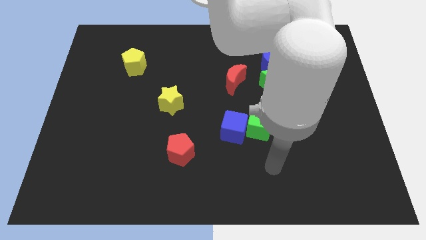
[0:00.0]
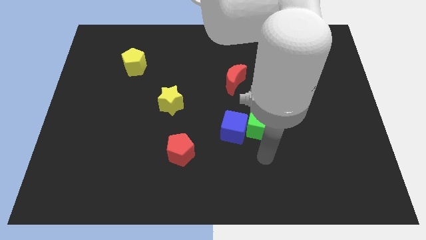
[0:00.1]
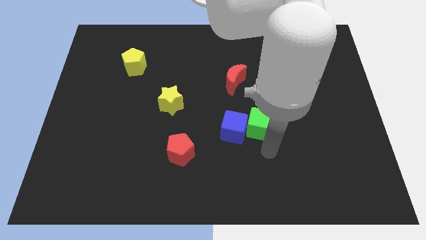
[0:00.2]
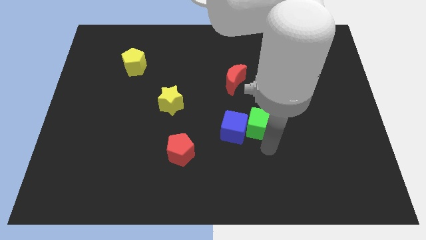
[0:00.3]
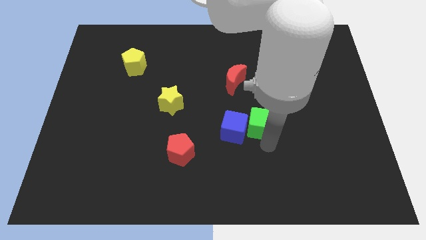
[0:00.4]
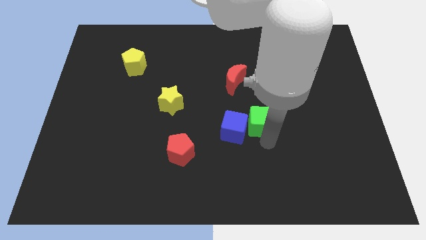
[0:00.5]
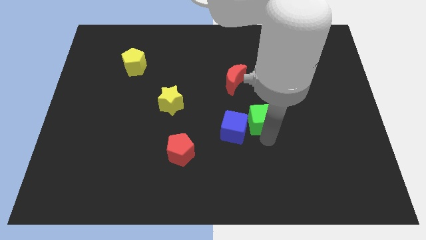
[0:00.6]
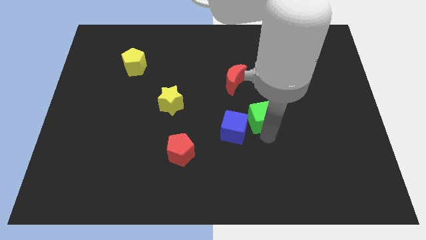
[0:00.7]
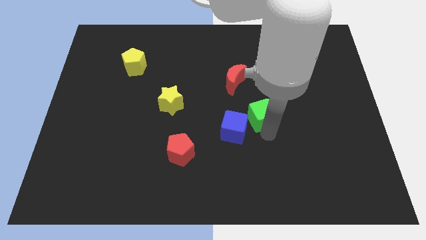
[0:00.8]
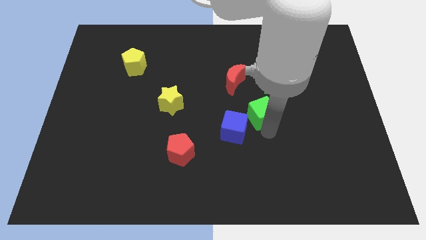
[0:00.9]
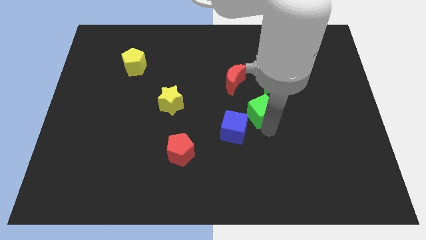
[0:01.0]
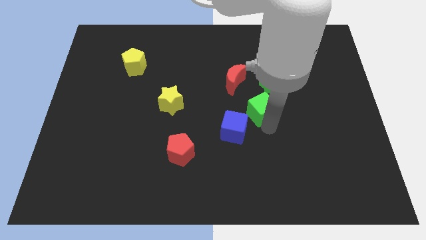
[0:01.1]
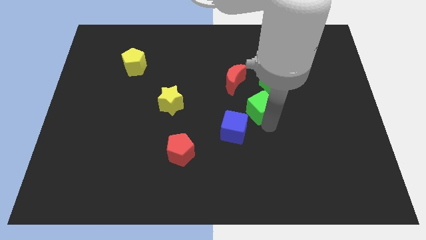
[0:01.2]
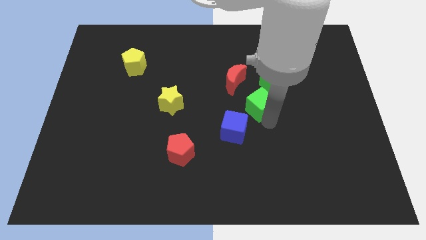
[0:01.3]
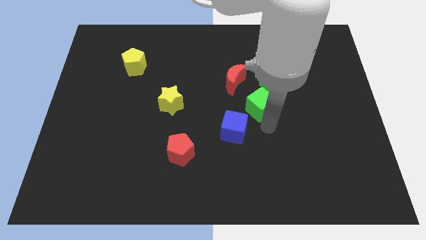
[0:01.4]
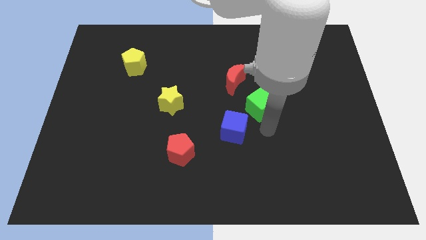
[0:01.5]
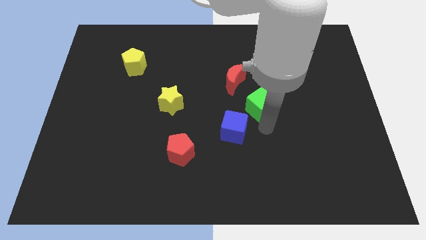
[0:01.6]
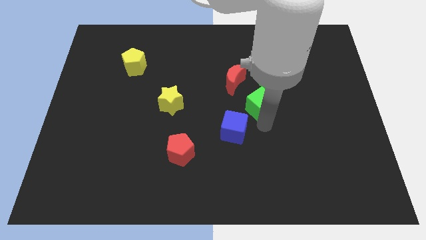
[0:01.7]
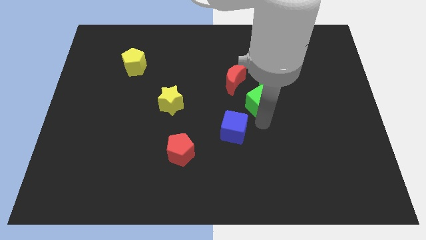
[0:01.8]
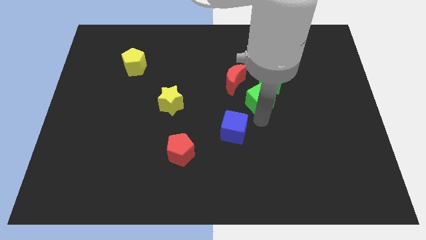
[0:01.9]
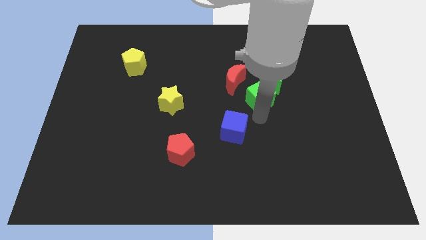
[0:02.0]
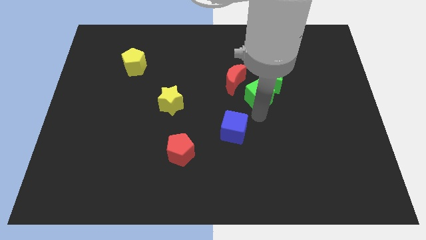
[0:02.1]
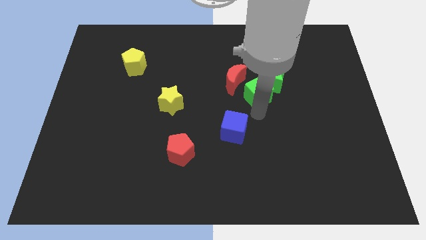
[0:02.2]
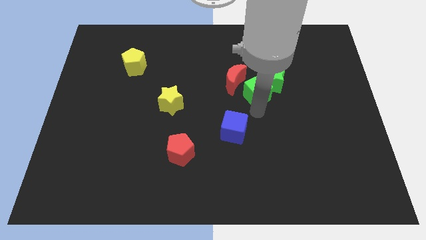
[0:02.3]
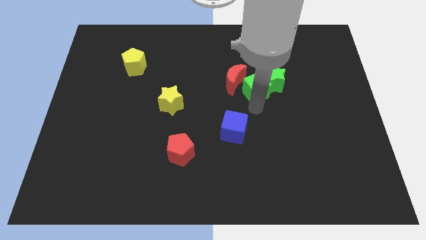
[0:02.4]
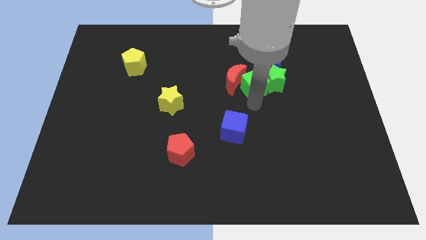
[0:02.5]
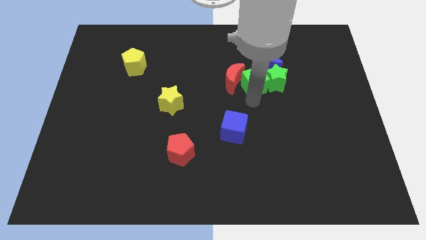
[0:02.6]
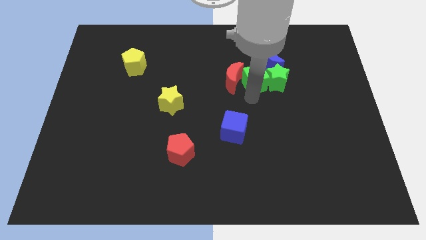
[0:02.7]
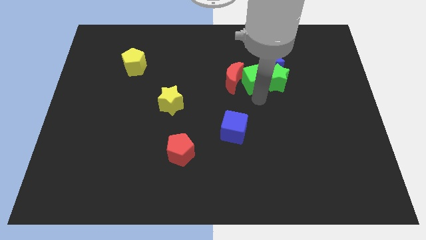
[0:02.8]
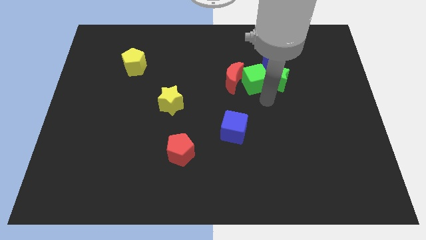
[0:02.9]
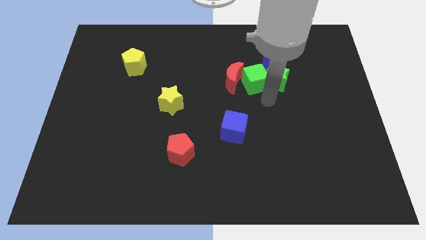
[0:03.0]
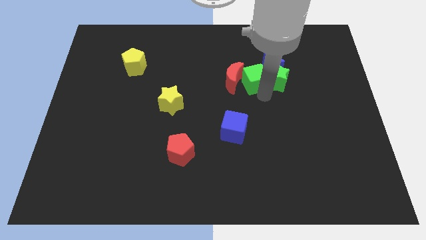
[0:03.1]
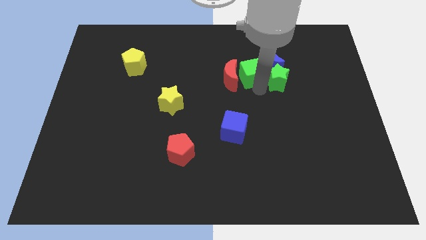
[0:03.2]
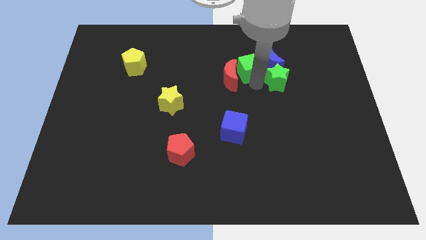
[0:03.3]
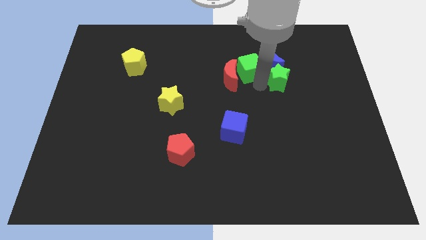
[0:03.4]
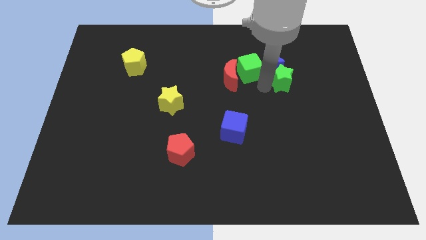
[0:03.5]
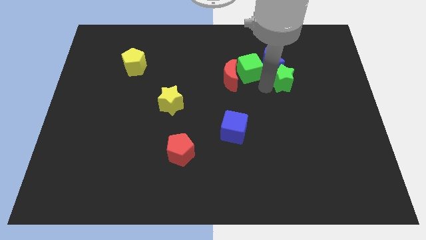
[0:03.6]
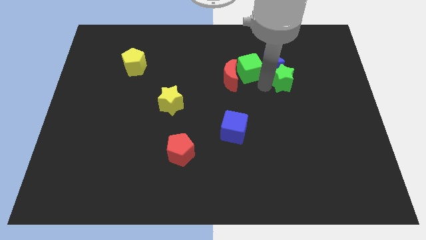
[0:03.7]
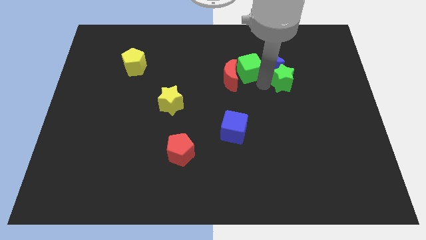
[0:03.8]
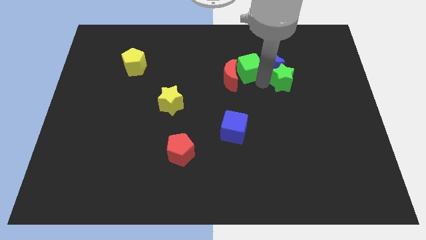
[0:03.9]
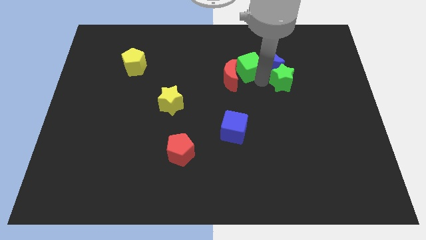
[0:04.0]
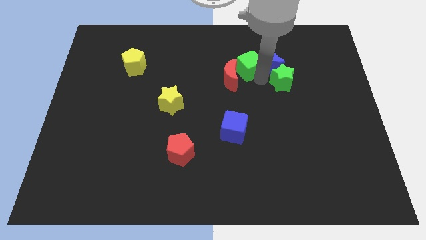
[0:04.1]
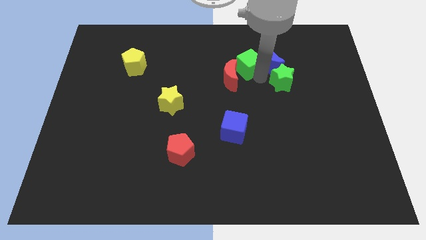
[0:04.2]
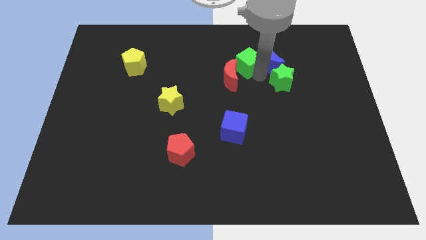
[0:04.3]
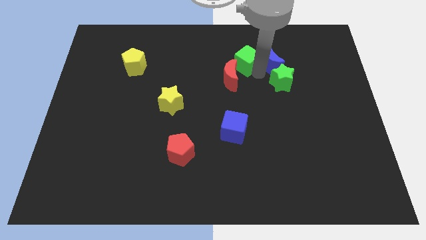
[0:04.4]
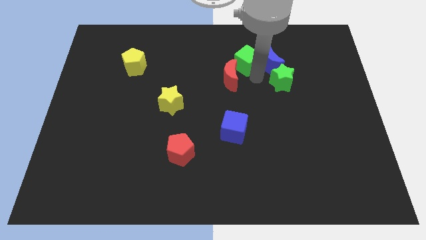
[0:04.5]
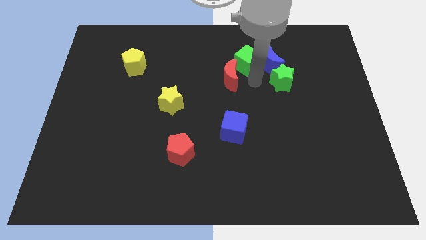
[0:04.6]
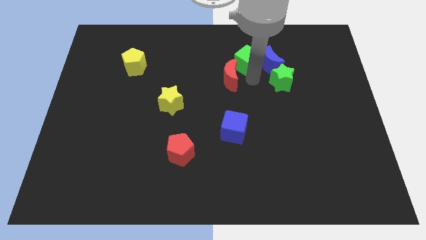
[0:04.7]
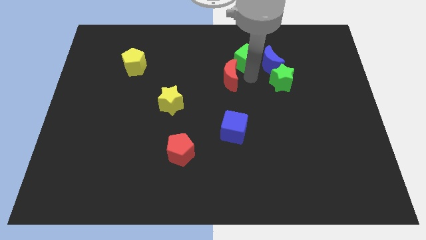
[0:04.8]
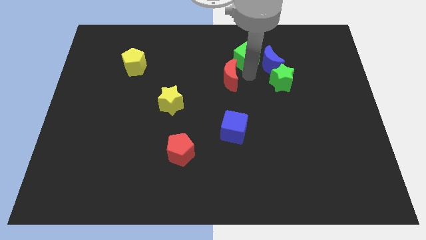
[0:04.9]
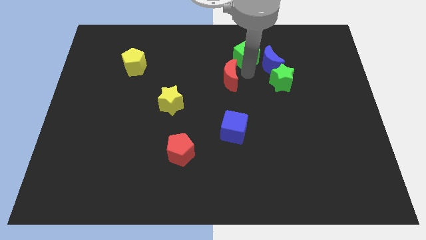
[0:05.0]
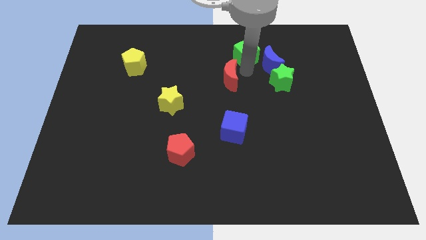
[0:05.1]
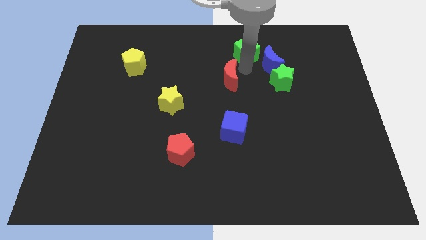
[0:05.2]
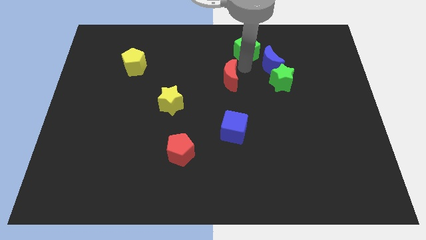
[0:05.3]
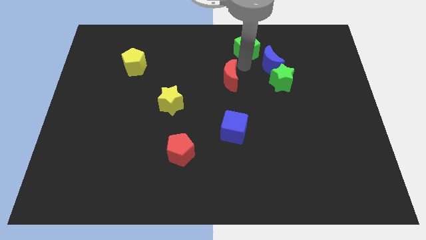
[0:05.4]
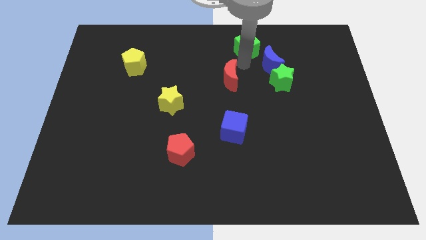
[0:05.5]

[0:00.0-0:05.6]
slide the green cube to the top
